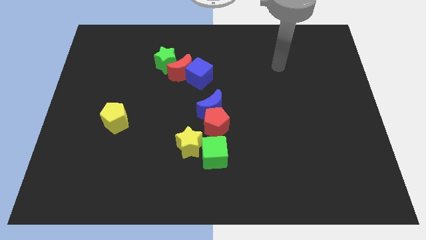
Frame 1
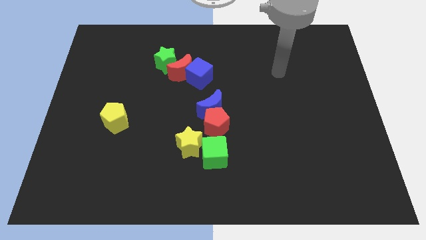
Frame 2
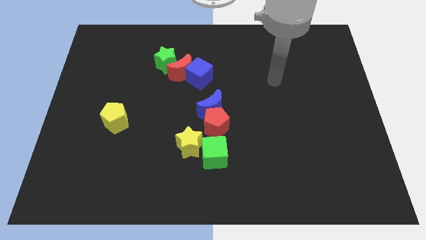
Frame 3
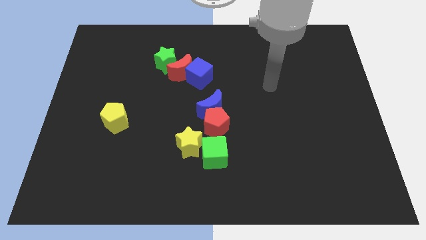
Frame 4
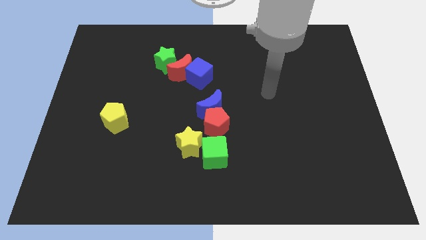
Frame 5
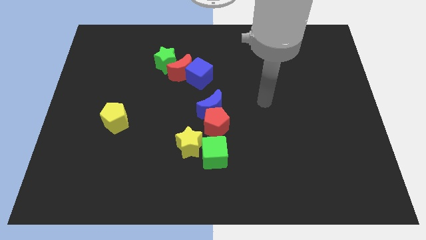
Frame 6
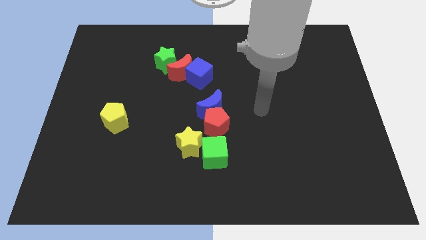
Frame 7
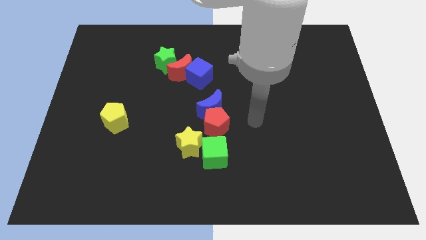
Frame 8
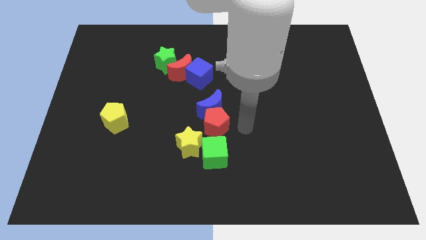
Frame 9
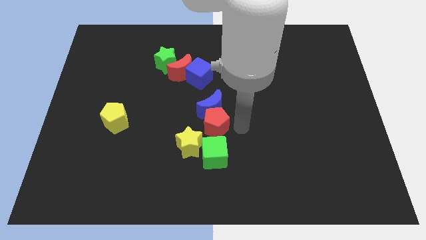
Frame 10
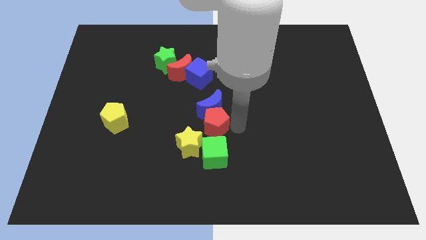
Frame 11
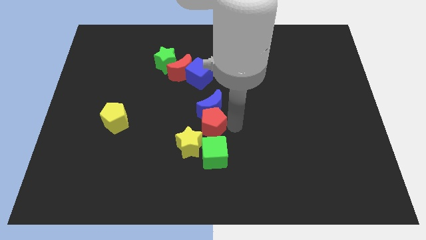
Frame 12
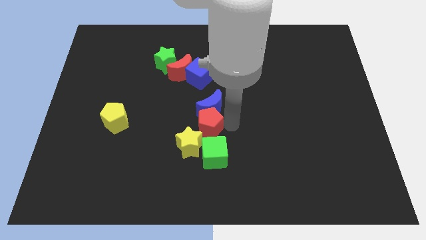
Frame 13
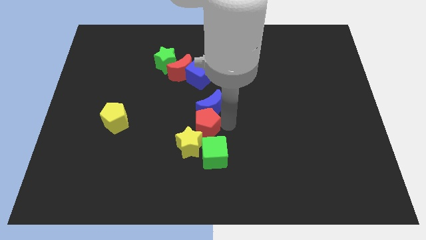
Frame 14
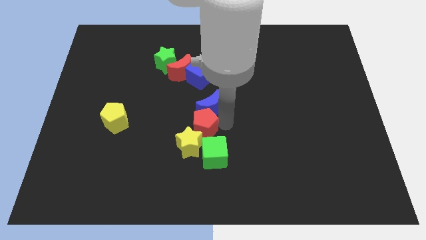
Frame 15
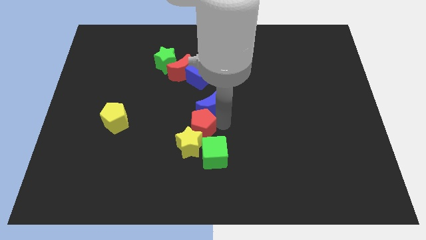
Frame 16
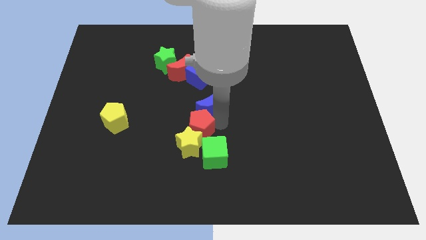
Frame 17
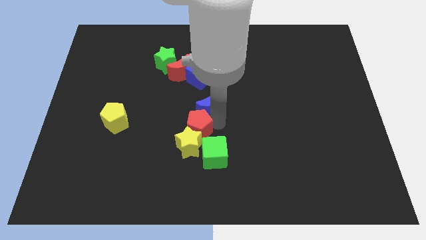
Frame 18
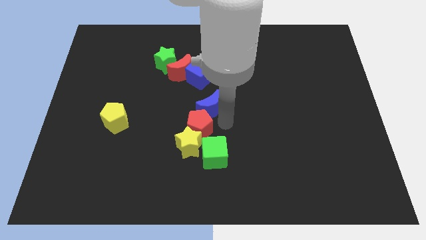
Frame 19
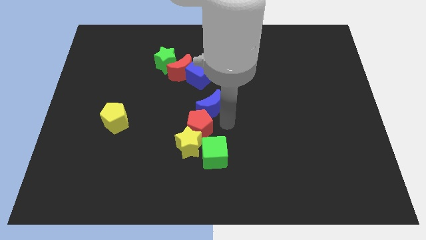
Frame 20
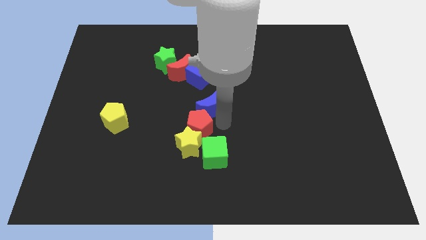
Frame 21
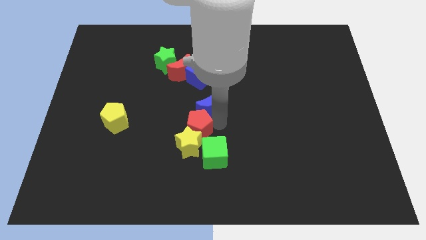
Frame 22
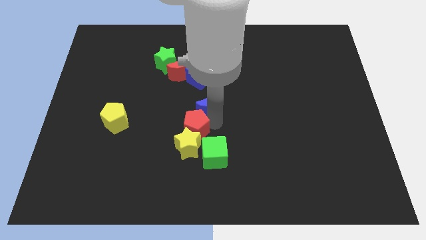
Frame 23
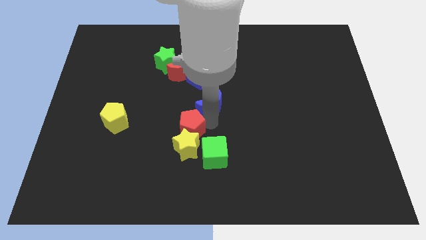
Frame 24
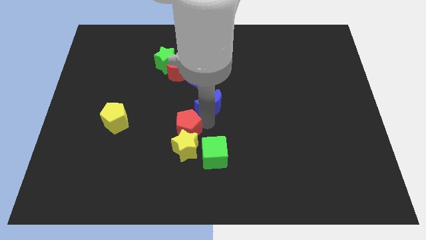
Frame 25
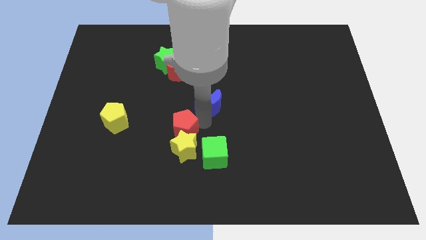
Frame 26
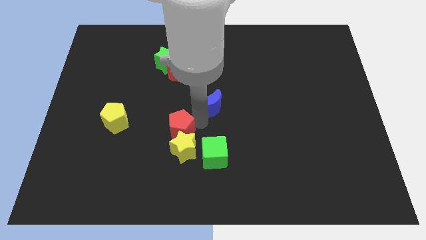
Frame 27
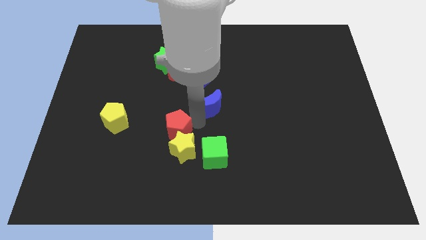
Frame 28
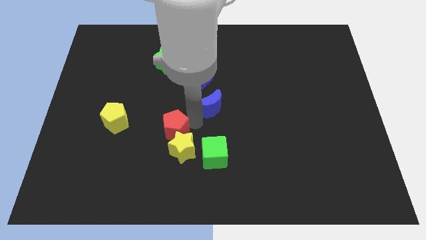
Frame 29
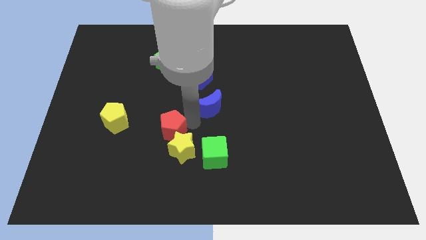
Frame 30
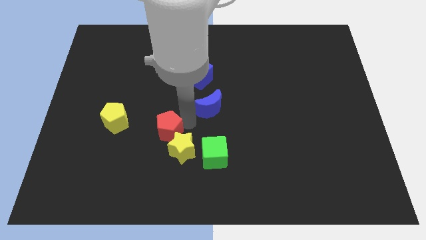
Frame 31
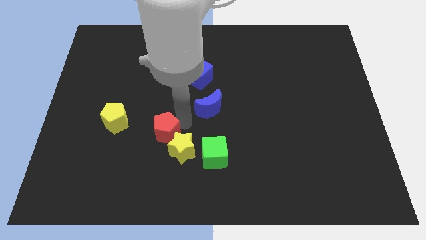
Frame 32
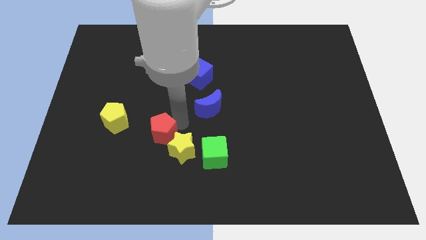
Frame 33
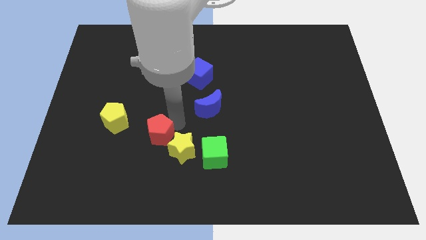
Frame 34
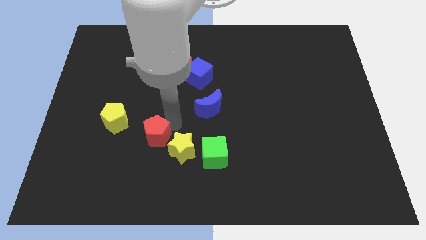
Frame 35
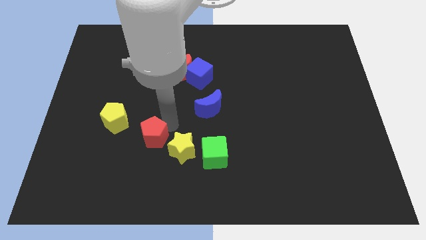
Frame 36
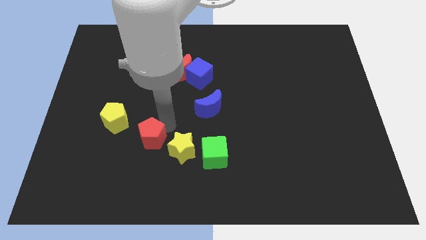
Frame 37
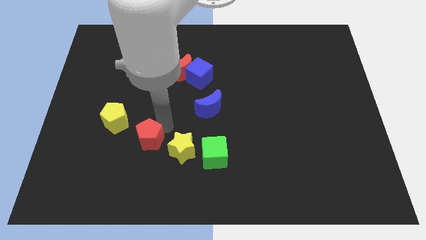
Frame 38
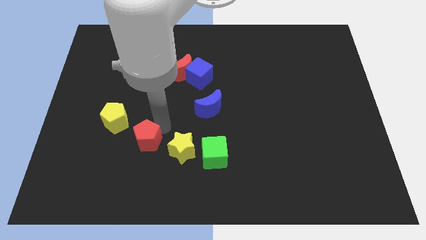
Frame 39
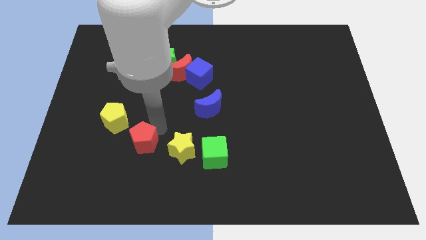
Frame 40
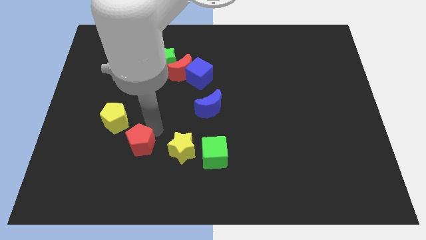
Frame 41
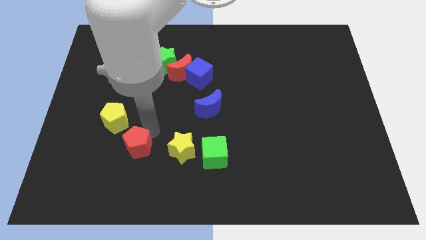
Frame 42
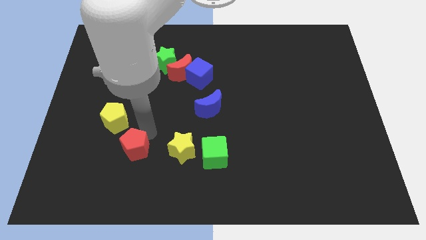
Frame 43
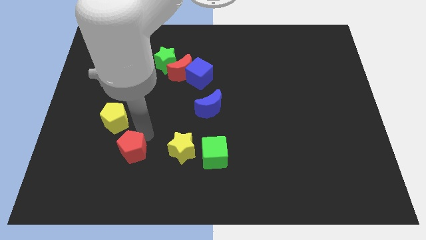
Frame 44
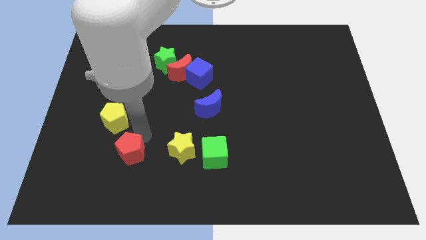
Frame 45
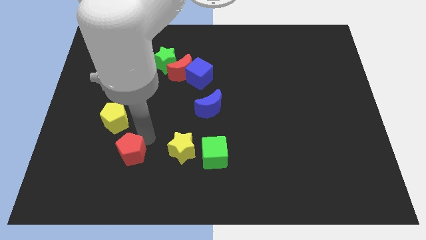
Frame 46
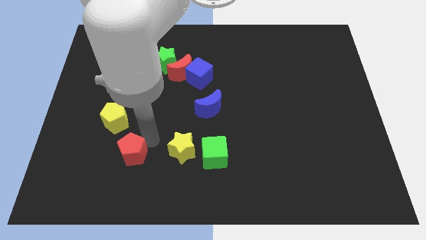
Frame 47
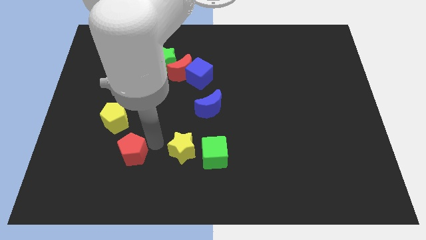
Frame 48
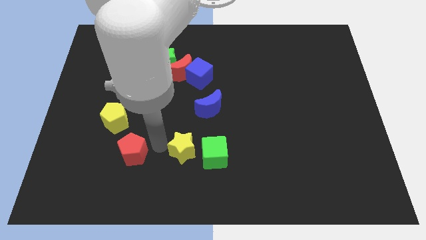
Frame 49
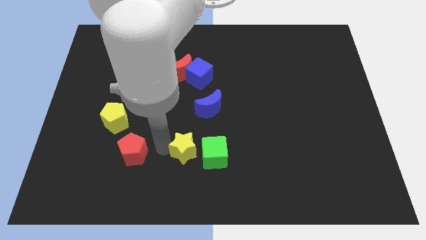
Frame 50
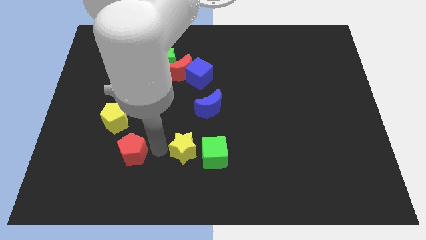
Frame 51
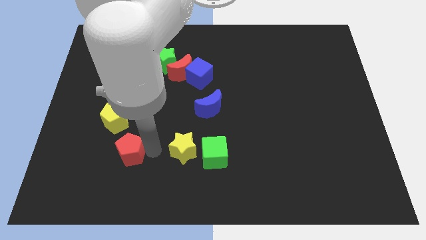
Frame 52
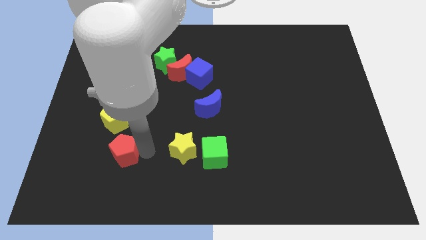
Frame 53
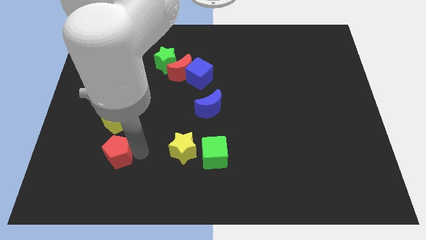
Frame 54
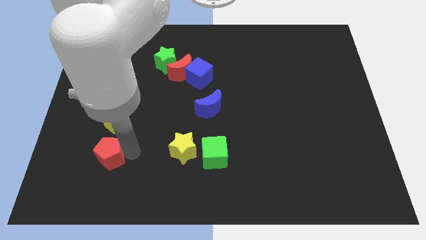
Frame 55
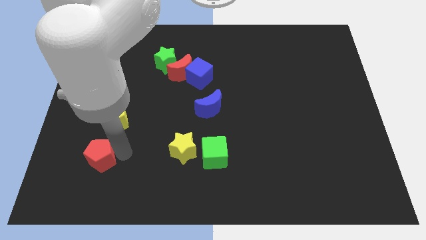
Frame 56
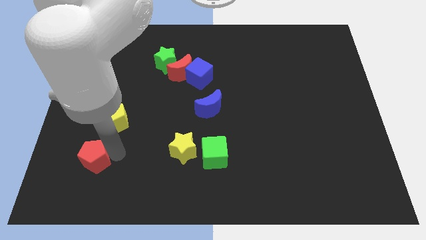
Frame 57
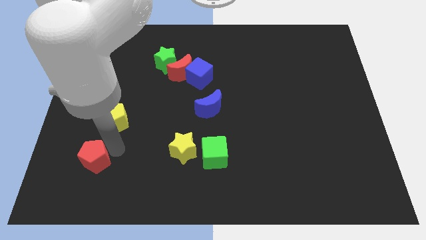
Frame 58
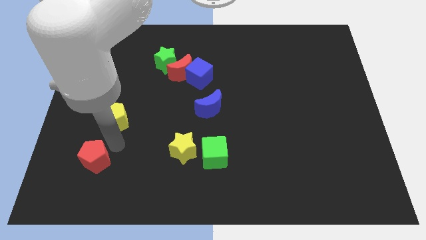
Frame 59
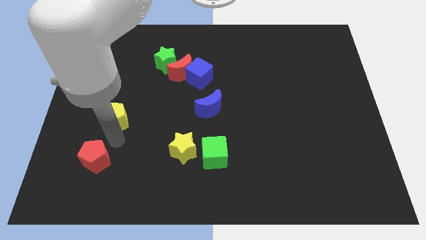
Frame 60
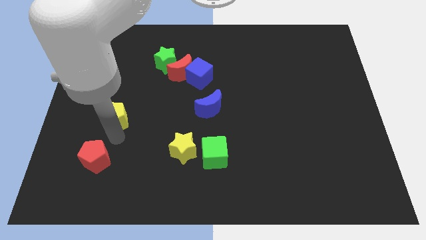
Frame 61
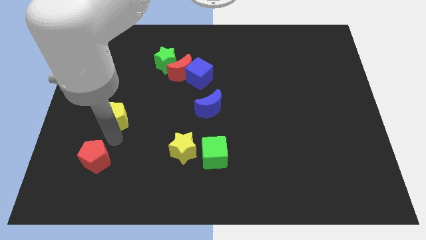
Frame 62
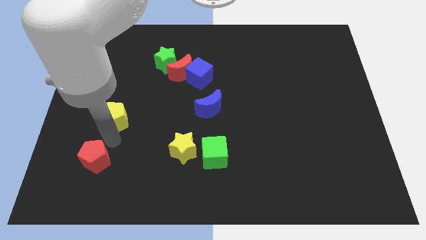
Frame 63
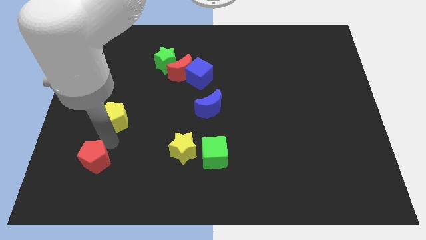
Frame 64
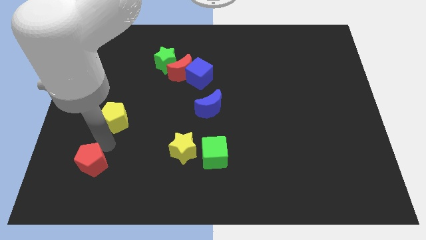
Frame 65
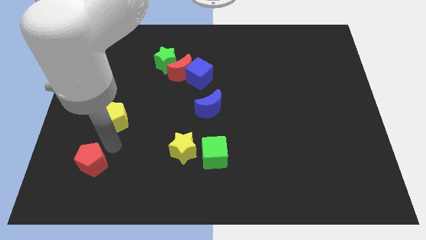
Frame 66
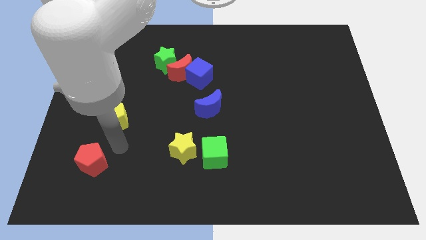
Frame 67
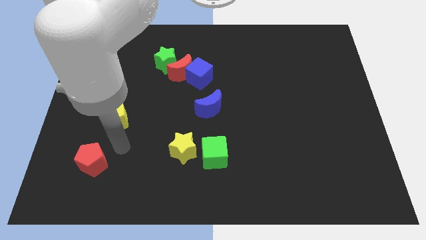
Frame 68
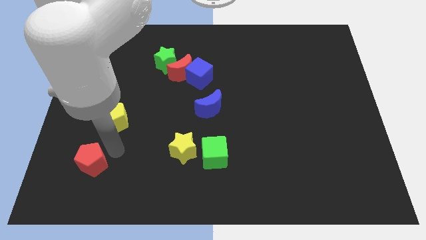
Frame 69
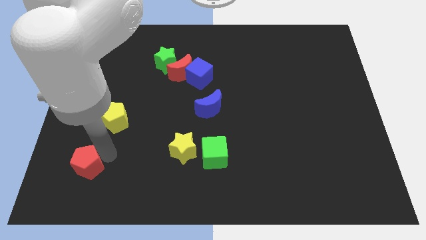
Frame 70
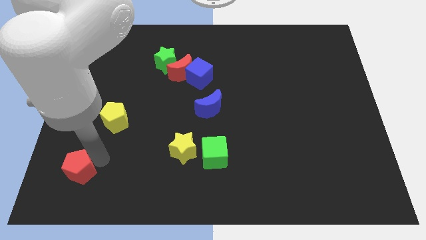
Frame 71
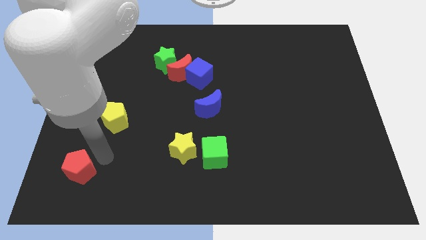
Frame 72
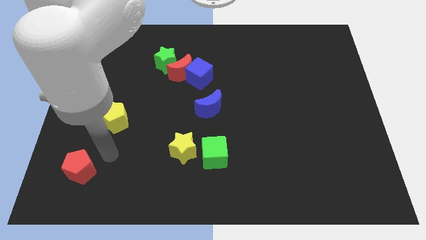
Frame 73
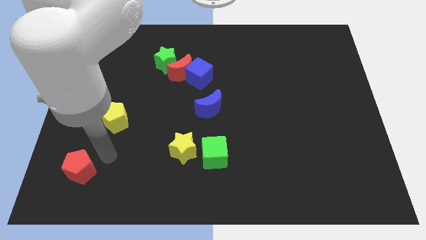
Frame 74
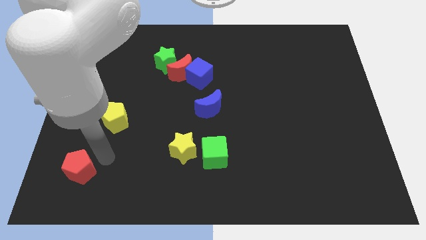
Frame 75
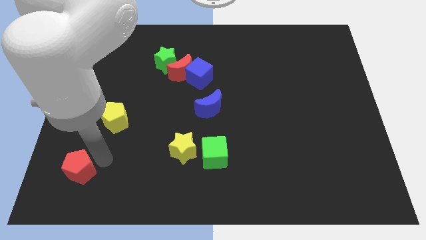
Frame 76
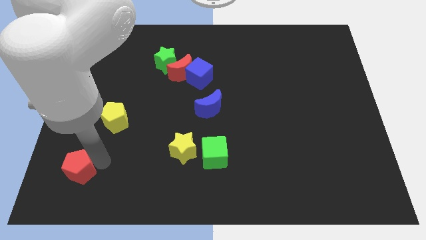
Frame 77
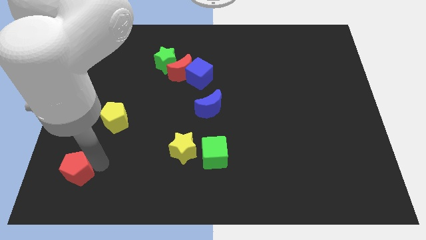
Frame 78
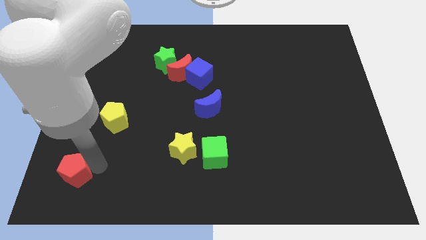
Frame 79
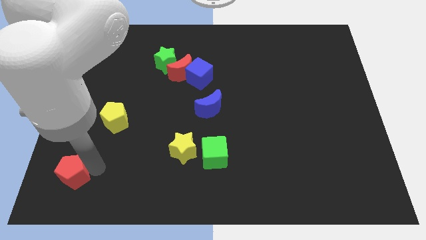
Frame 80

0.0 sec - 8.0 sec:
put the red pentagon to the bottom left corner

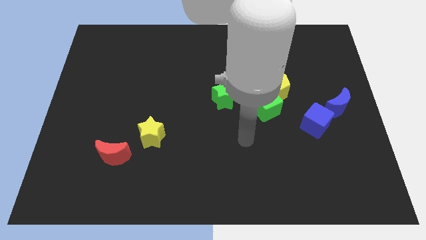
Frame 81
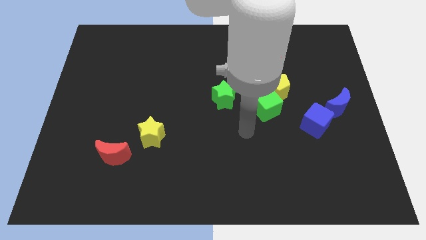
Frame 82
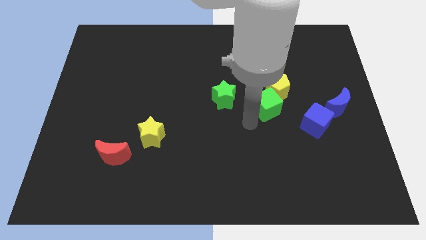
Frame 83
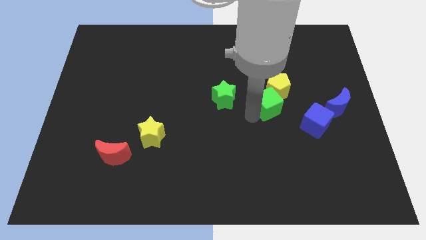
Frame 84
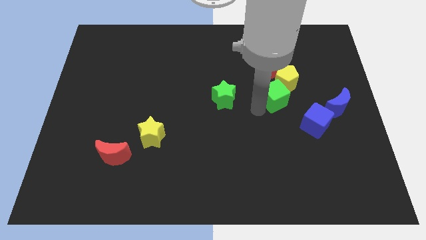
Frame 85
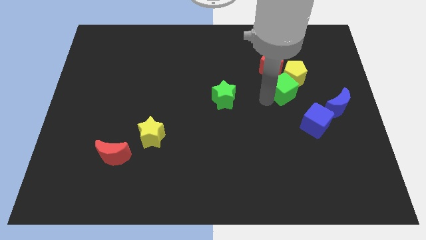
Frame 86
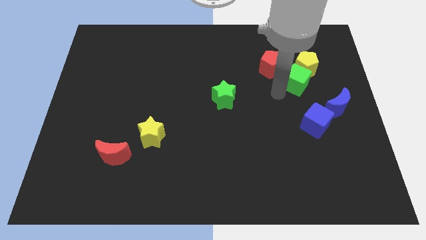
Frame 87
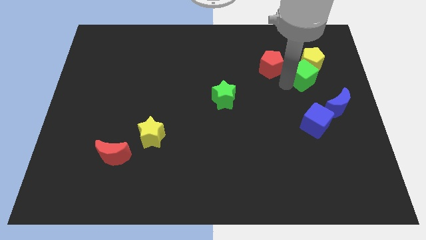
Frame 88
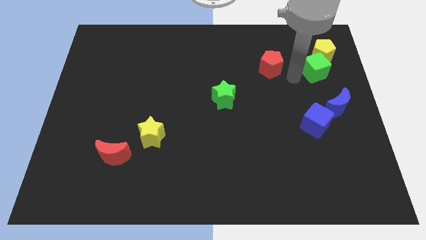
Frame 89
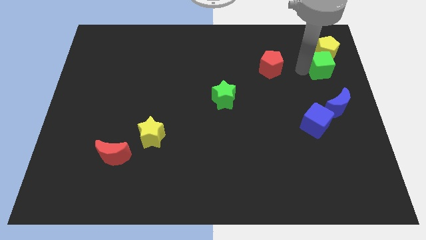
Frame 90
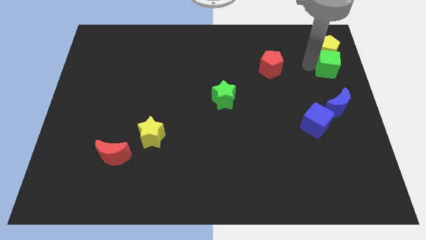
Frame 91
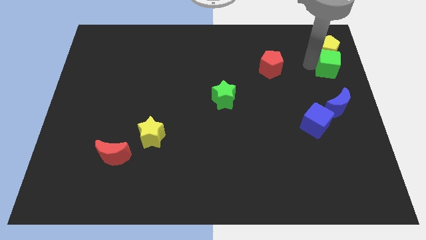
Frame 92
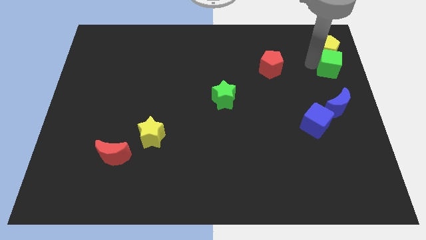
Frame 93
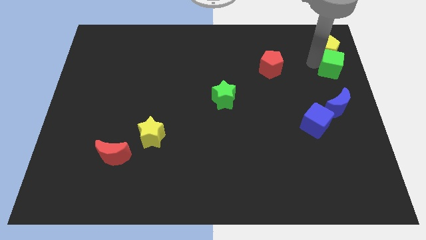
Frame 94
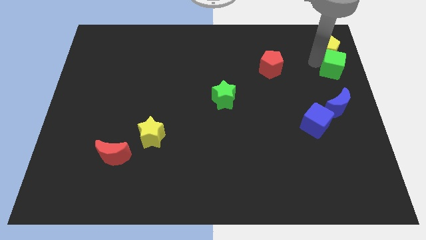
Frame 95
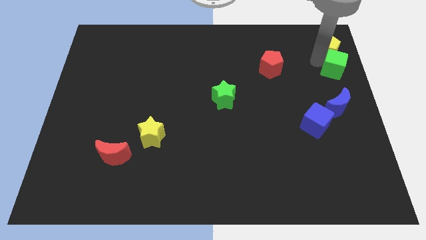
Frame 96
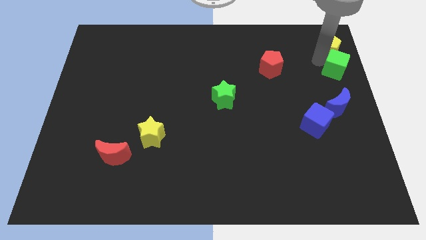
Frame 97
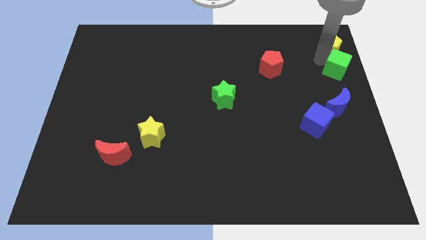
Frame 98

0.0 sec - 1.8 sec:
put the yellow pentagon to the top right
